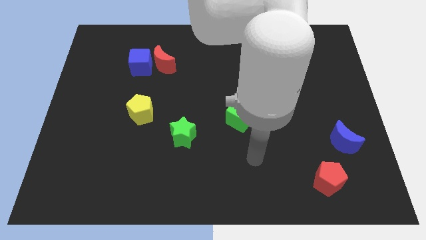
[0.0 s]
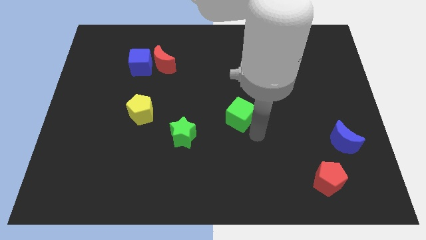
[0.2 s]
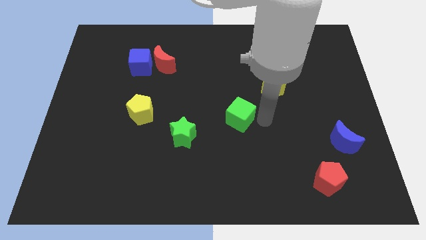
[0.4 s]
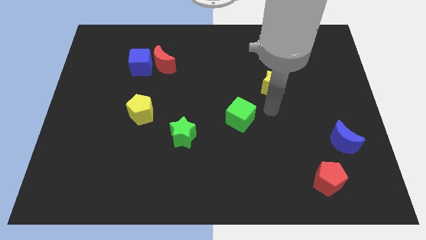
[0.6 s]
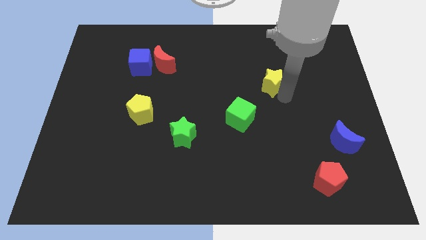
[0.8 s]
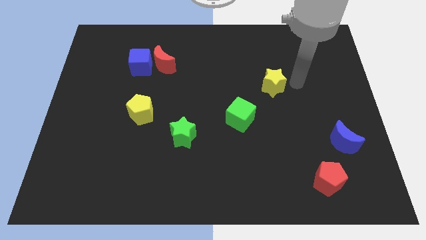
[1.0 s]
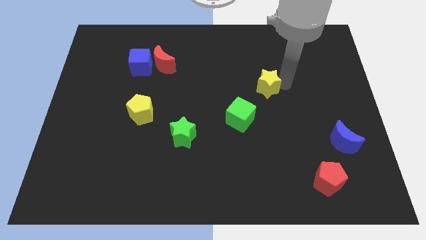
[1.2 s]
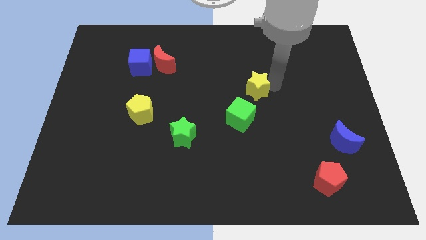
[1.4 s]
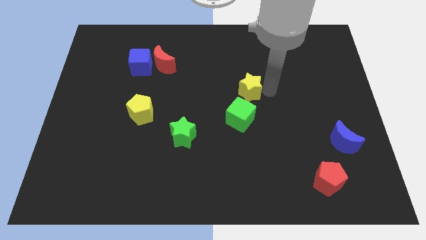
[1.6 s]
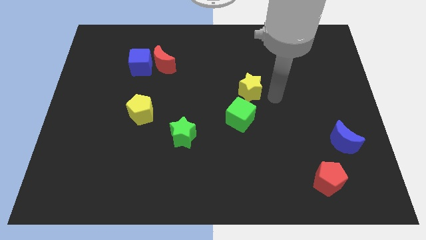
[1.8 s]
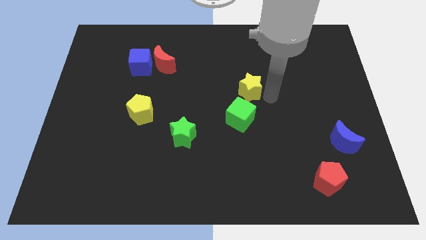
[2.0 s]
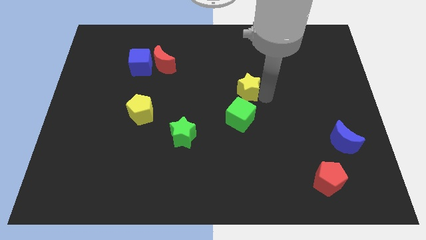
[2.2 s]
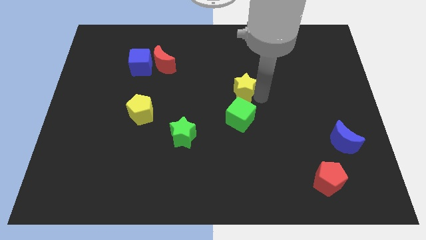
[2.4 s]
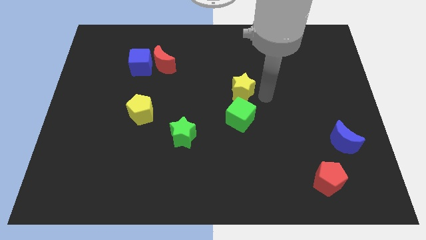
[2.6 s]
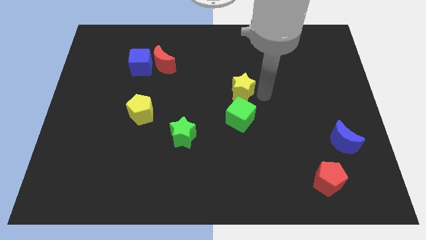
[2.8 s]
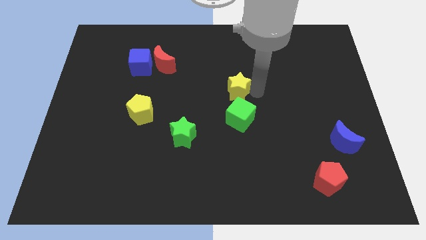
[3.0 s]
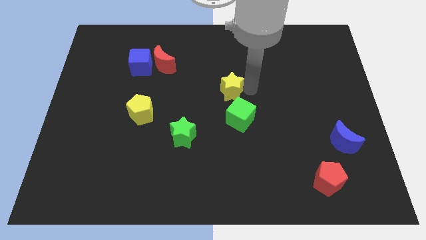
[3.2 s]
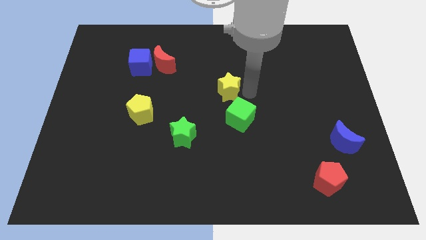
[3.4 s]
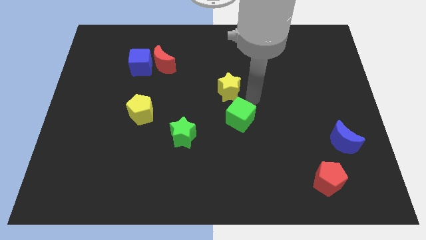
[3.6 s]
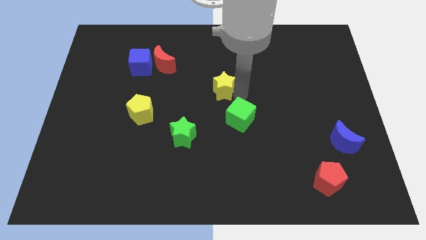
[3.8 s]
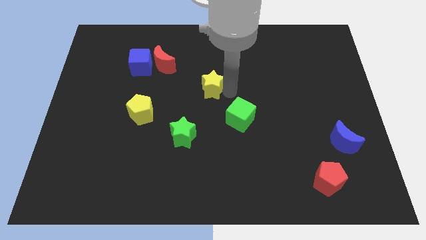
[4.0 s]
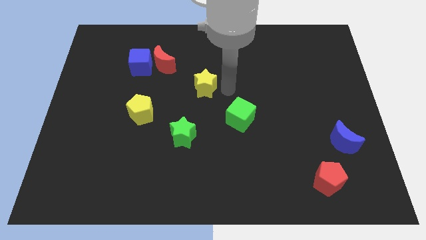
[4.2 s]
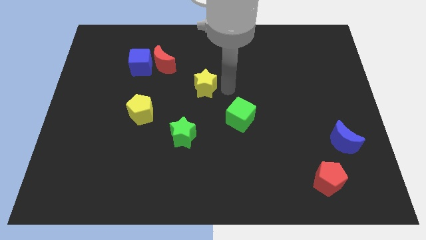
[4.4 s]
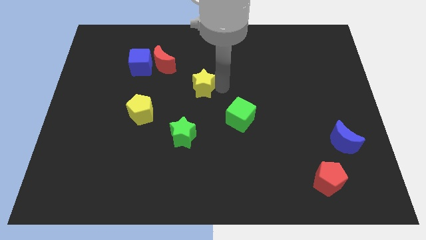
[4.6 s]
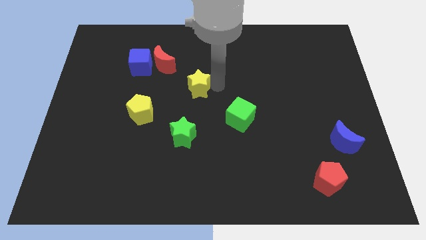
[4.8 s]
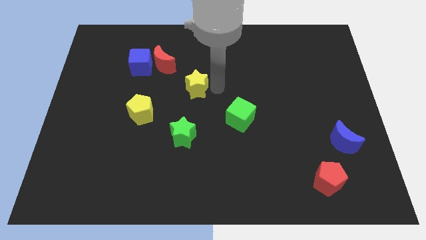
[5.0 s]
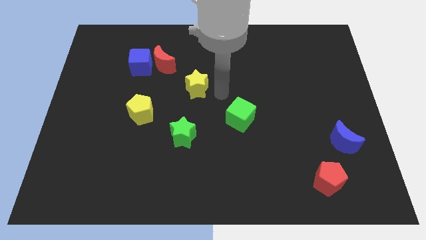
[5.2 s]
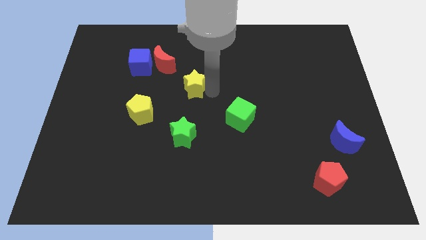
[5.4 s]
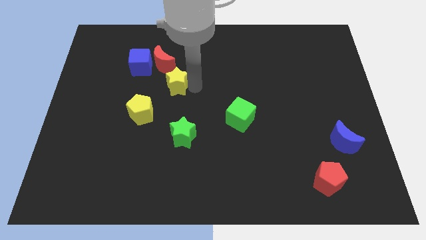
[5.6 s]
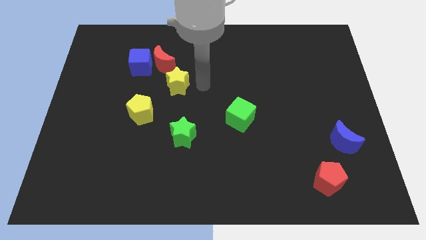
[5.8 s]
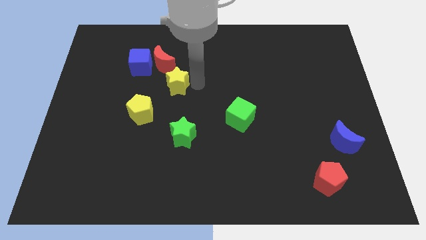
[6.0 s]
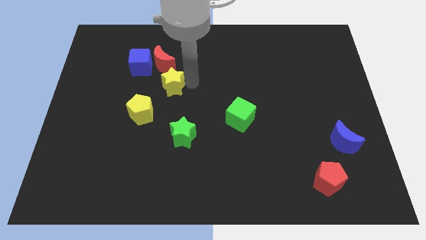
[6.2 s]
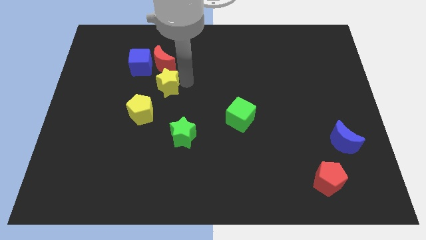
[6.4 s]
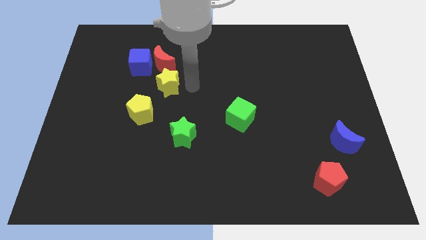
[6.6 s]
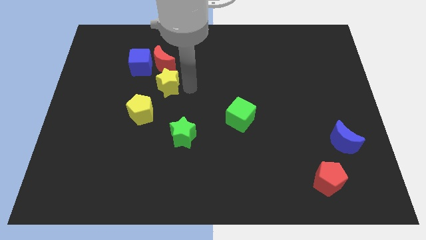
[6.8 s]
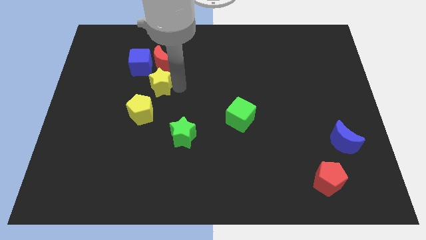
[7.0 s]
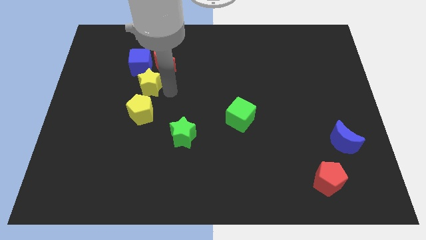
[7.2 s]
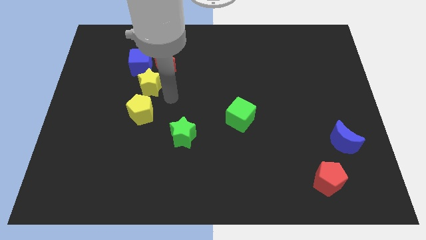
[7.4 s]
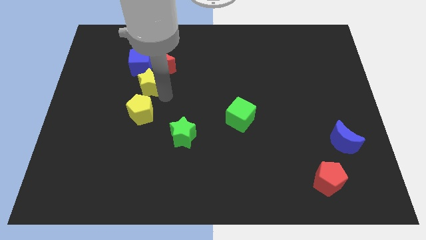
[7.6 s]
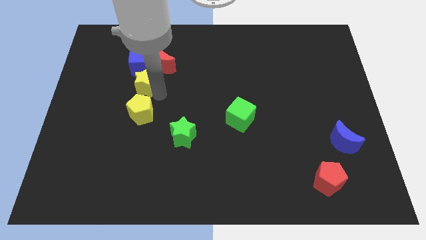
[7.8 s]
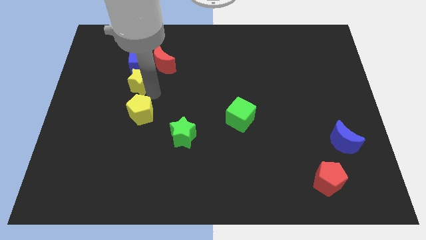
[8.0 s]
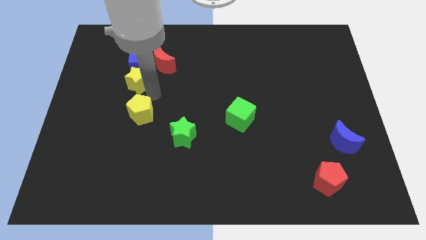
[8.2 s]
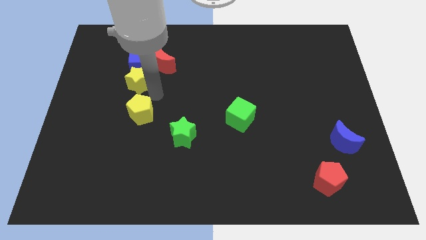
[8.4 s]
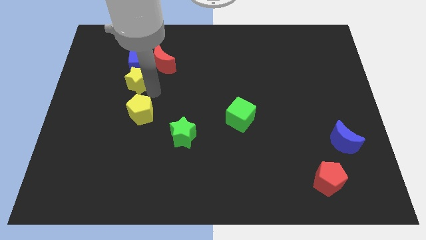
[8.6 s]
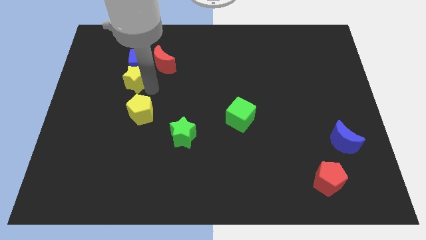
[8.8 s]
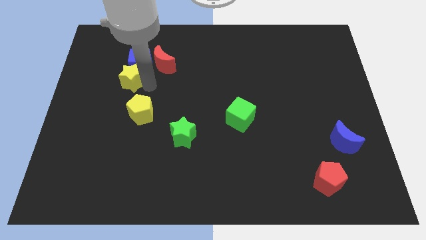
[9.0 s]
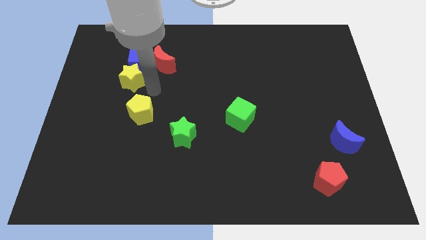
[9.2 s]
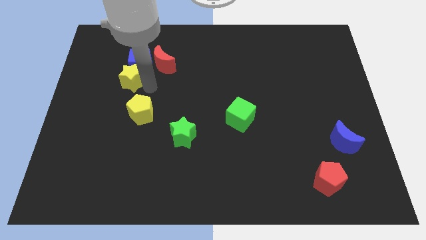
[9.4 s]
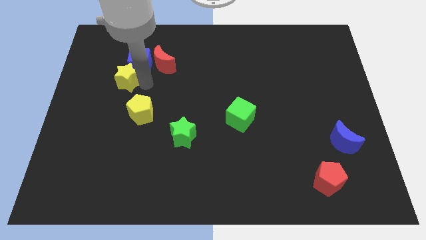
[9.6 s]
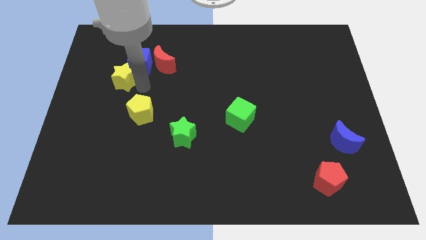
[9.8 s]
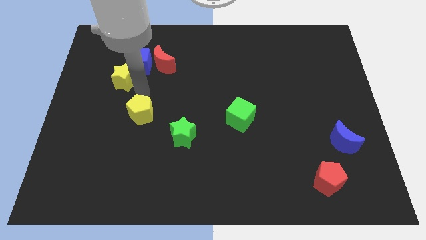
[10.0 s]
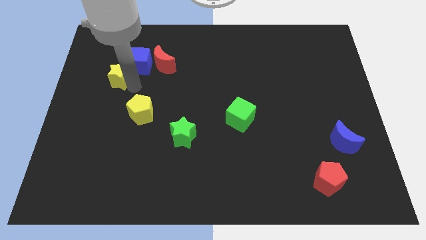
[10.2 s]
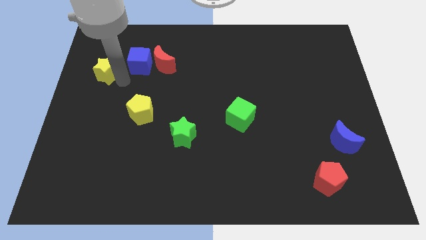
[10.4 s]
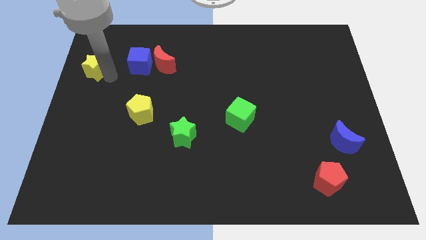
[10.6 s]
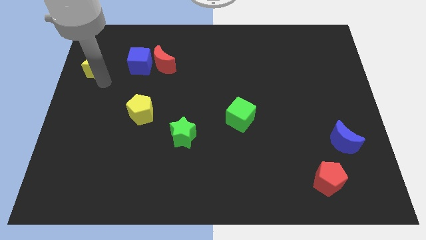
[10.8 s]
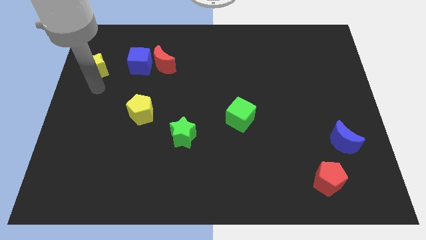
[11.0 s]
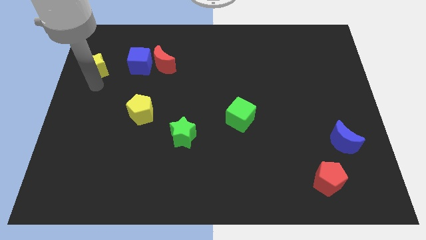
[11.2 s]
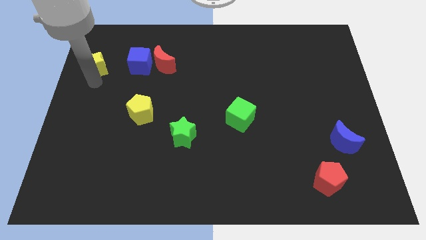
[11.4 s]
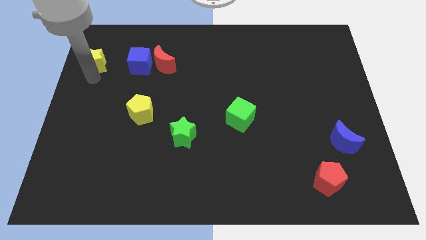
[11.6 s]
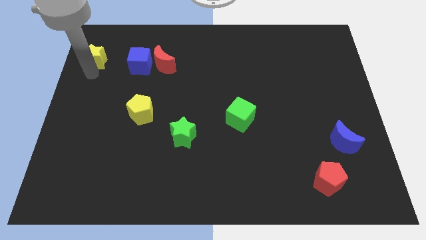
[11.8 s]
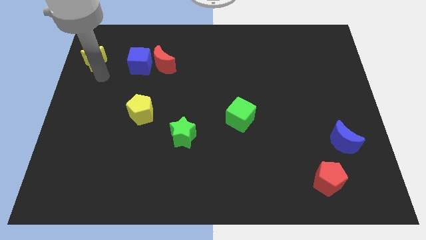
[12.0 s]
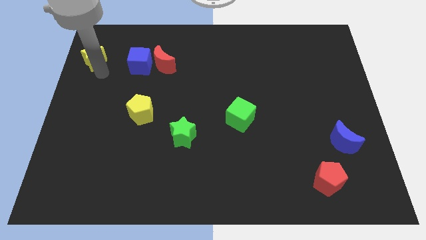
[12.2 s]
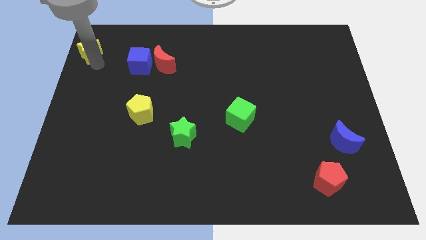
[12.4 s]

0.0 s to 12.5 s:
push the yellow star to the top left

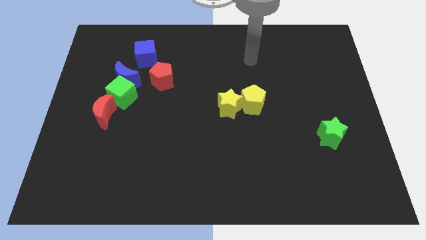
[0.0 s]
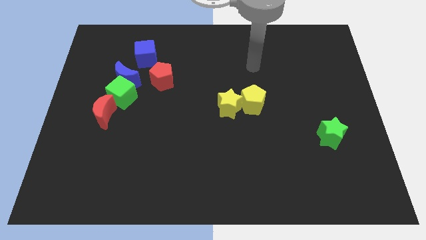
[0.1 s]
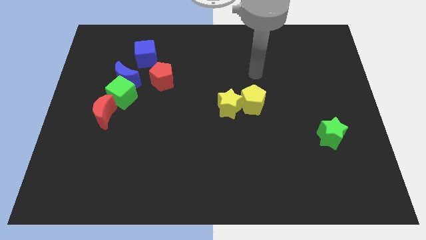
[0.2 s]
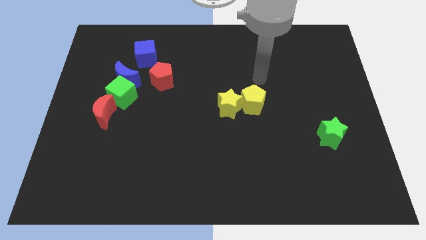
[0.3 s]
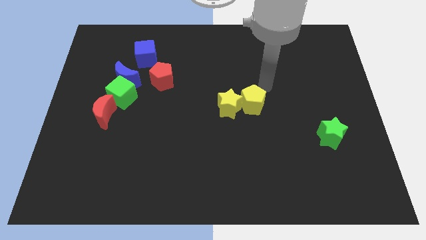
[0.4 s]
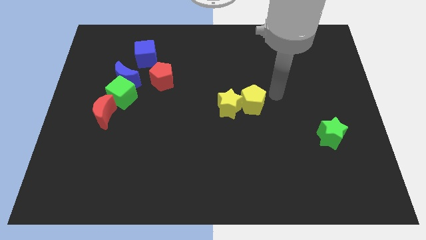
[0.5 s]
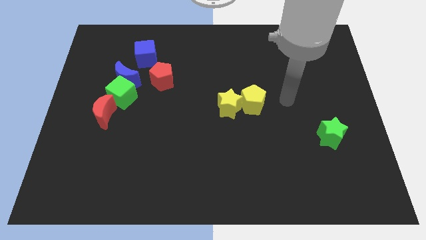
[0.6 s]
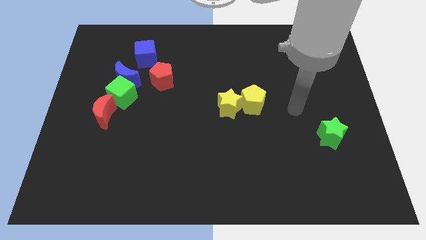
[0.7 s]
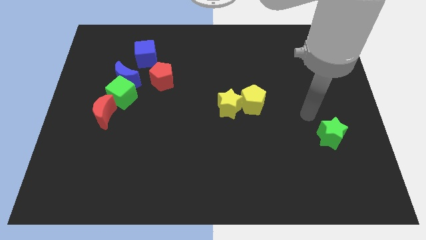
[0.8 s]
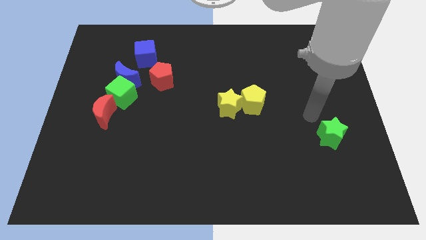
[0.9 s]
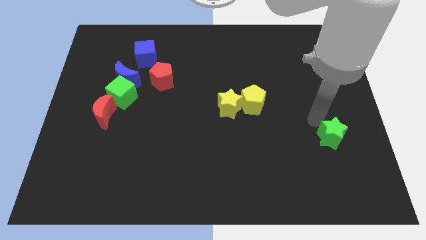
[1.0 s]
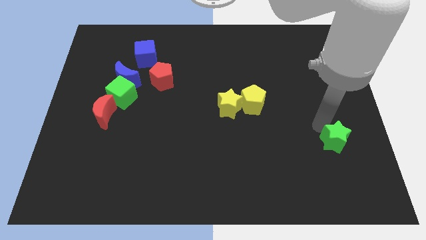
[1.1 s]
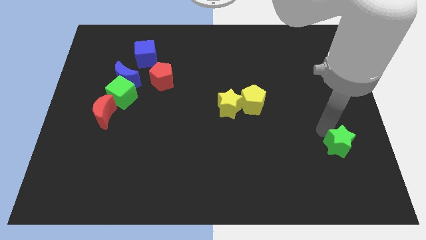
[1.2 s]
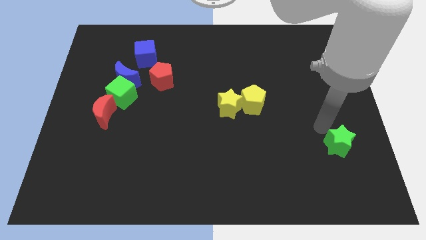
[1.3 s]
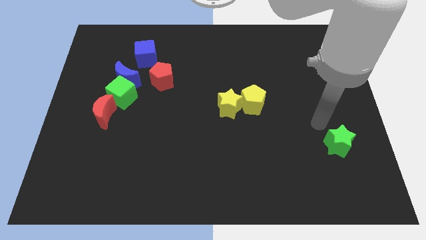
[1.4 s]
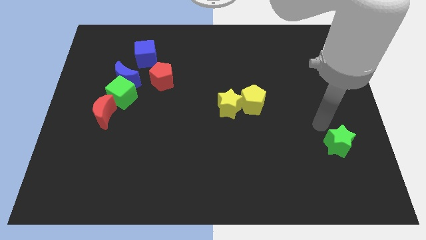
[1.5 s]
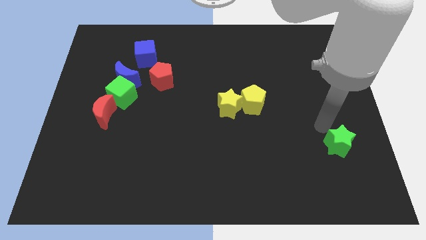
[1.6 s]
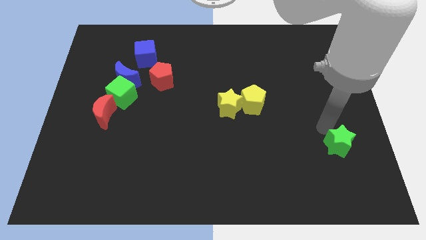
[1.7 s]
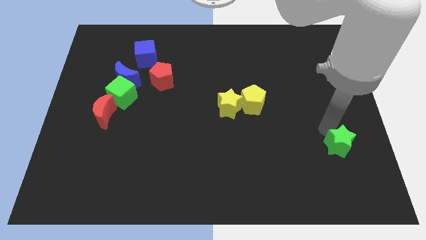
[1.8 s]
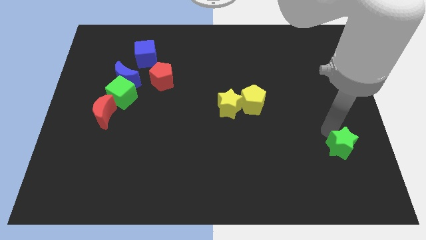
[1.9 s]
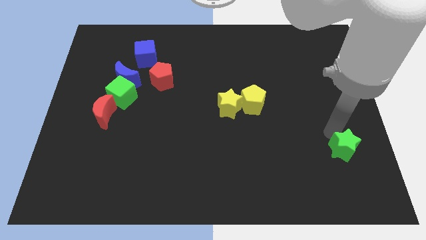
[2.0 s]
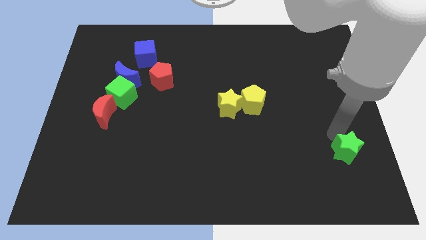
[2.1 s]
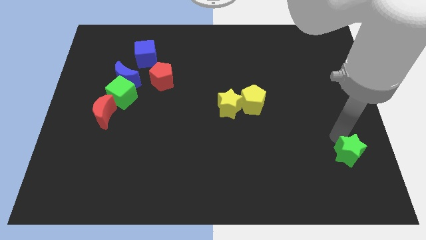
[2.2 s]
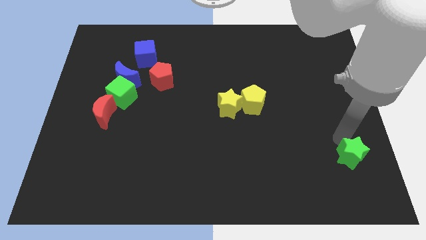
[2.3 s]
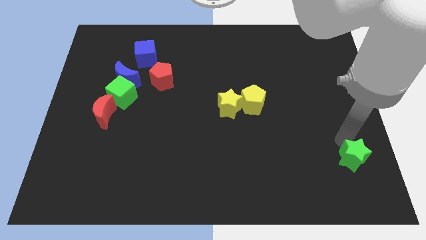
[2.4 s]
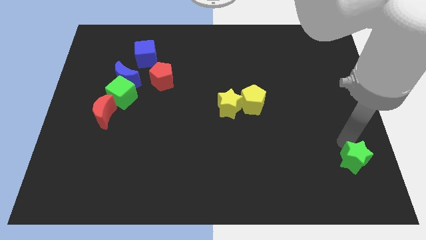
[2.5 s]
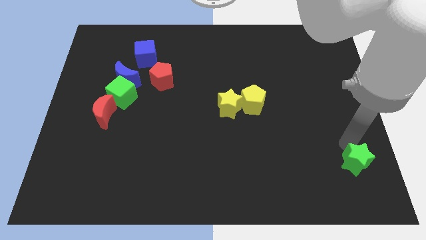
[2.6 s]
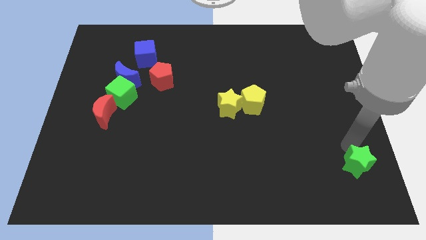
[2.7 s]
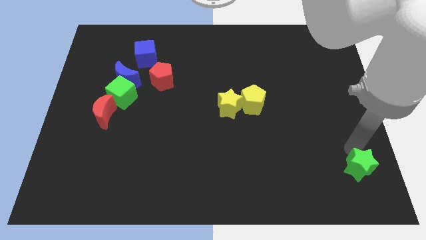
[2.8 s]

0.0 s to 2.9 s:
slide the green star to the lower right corner
